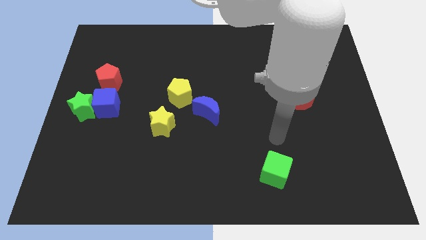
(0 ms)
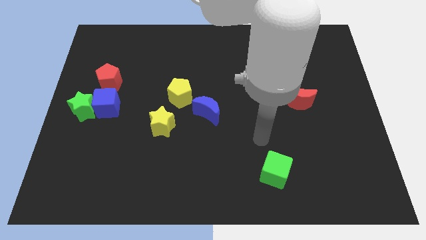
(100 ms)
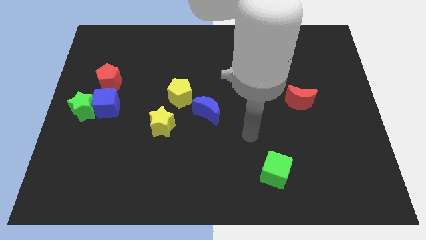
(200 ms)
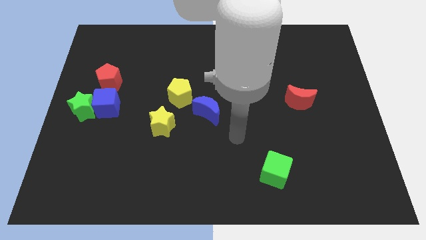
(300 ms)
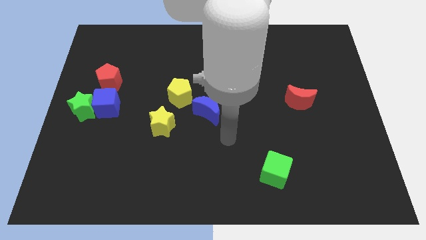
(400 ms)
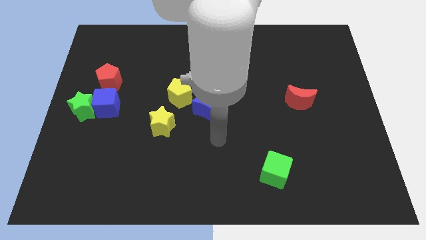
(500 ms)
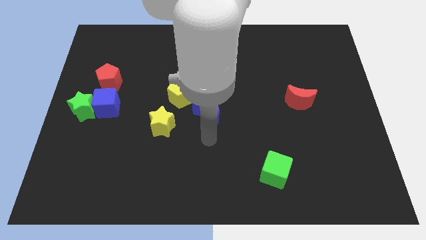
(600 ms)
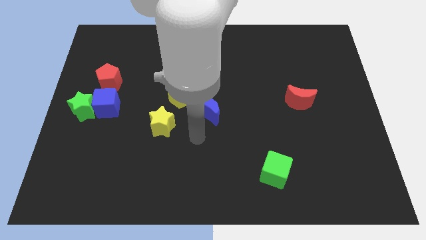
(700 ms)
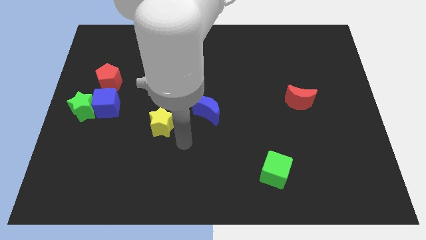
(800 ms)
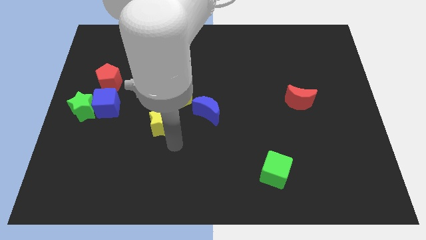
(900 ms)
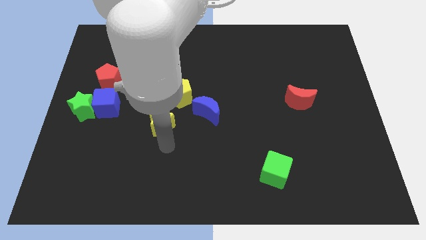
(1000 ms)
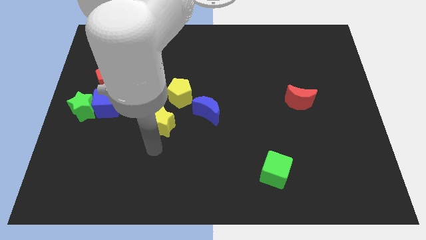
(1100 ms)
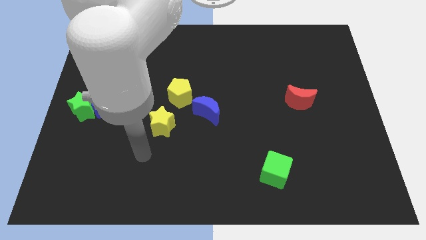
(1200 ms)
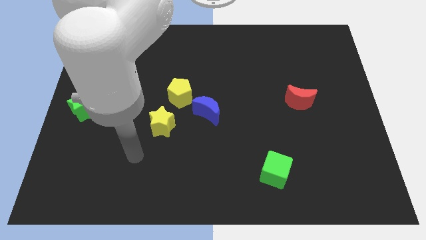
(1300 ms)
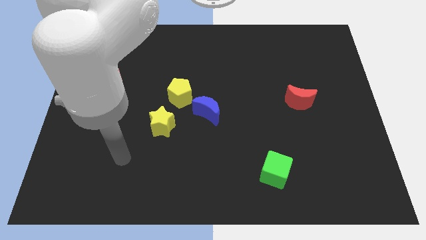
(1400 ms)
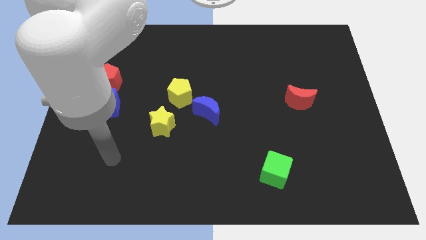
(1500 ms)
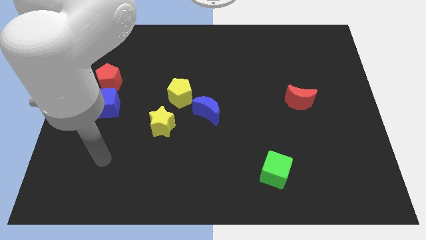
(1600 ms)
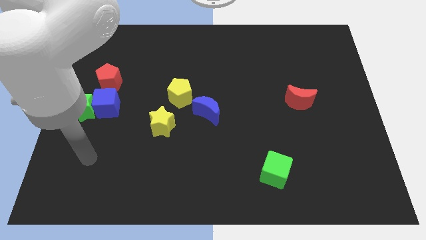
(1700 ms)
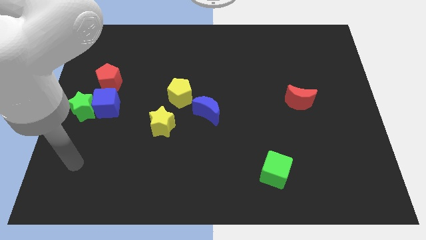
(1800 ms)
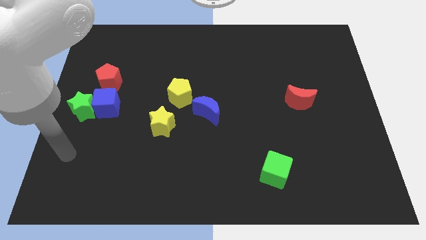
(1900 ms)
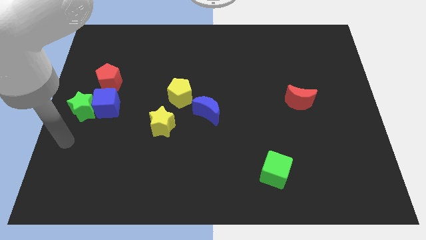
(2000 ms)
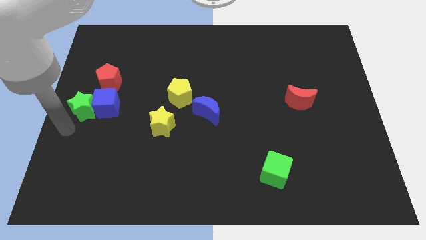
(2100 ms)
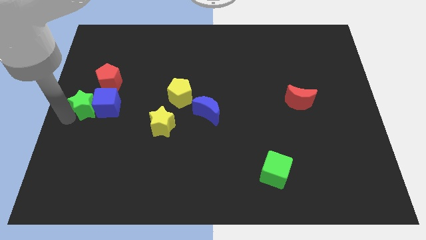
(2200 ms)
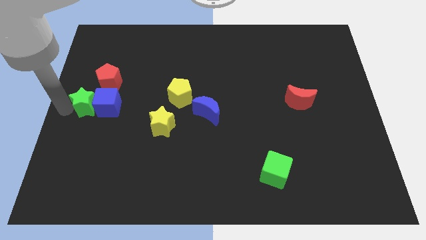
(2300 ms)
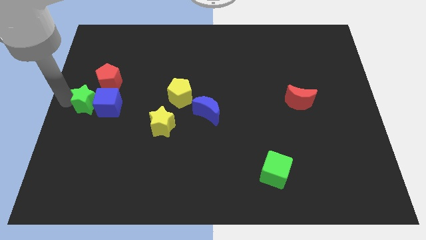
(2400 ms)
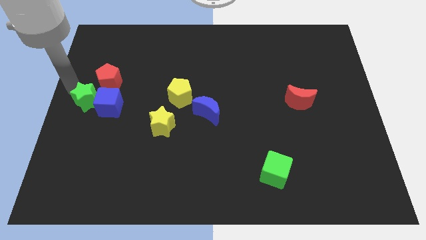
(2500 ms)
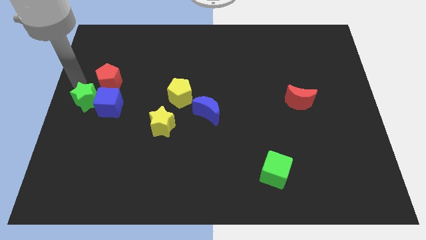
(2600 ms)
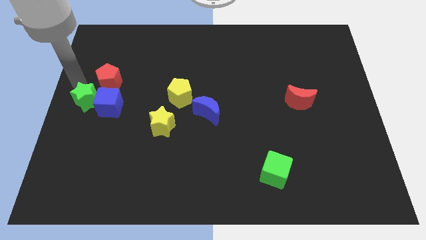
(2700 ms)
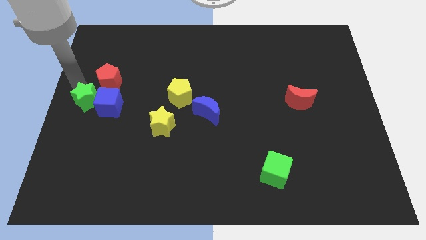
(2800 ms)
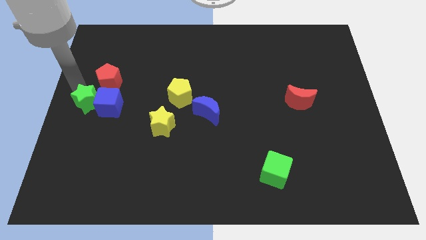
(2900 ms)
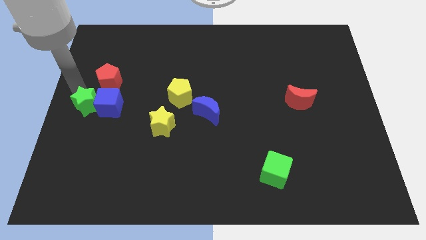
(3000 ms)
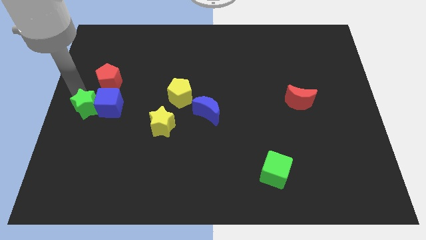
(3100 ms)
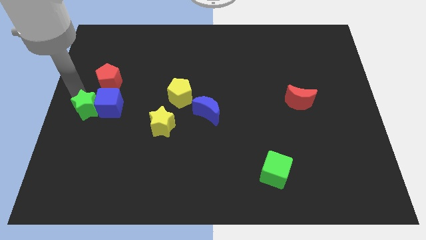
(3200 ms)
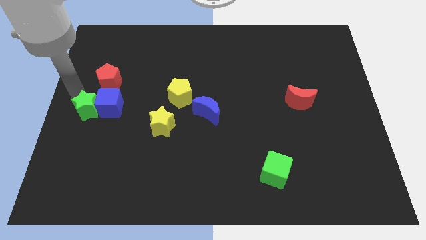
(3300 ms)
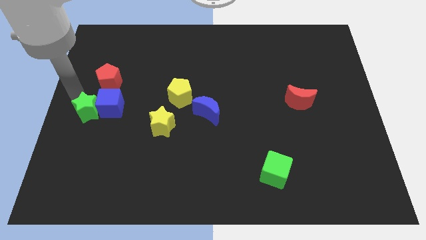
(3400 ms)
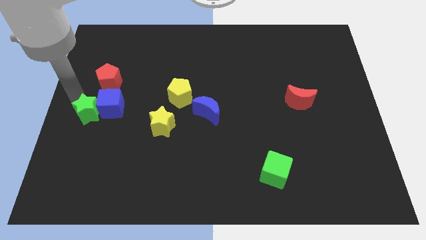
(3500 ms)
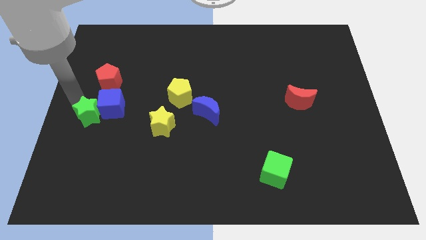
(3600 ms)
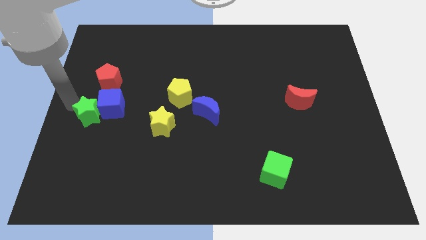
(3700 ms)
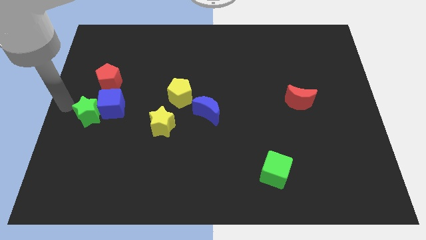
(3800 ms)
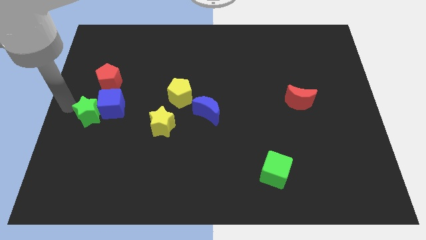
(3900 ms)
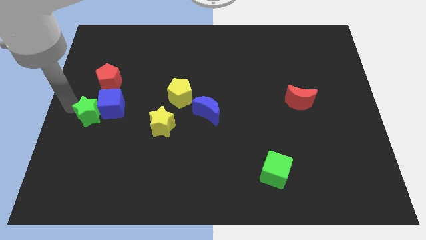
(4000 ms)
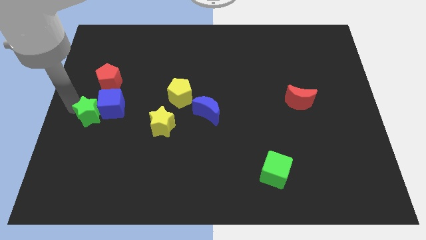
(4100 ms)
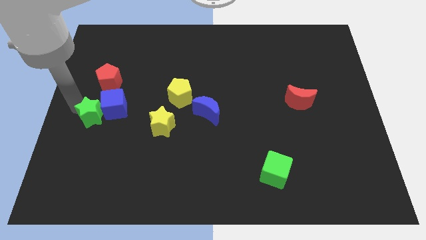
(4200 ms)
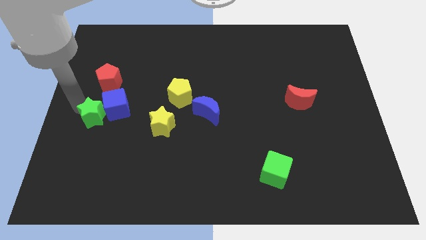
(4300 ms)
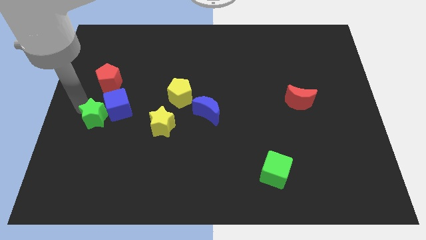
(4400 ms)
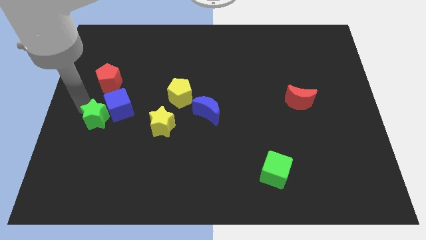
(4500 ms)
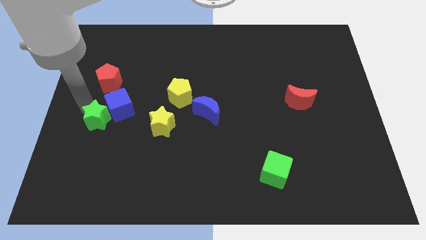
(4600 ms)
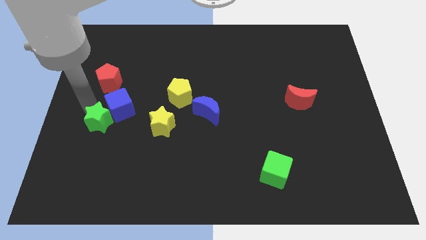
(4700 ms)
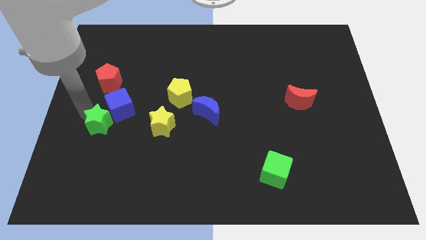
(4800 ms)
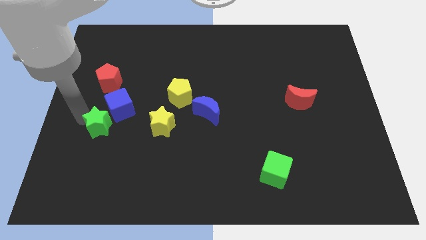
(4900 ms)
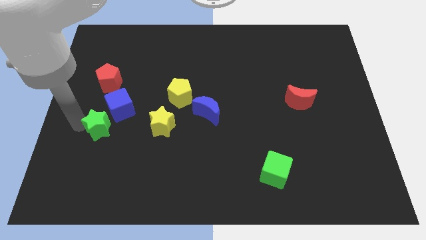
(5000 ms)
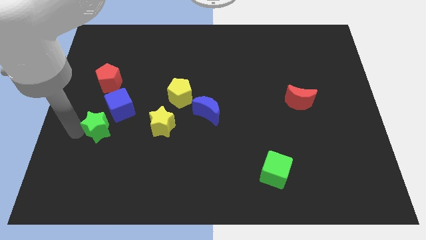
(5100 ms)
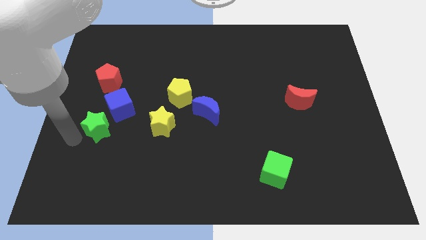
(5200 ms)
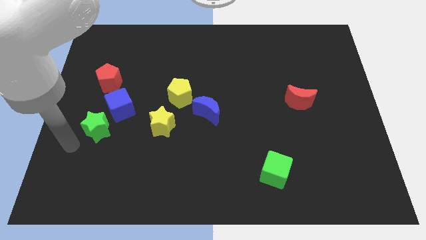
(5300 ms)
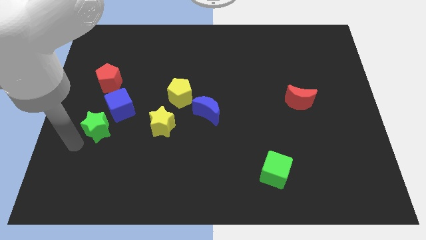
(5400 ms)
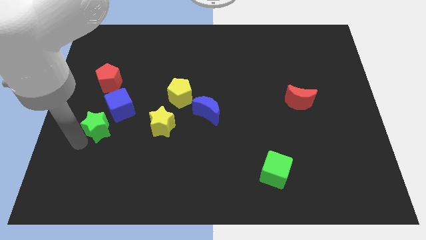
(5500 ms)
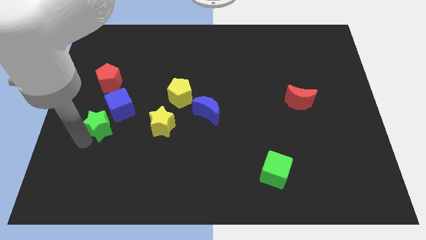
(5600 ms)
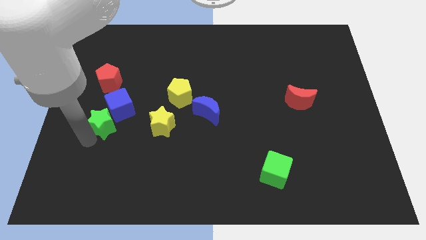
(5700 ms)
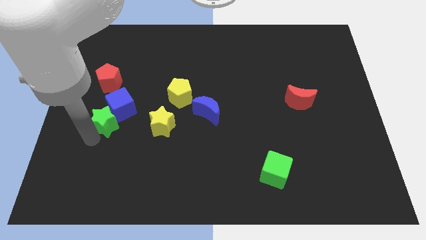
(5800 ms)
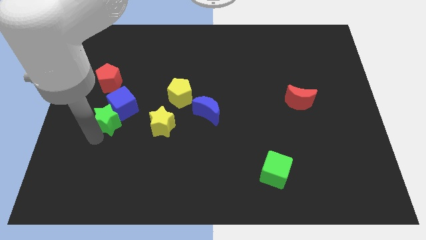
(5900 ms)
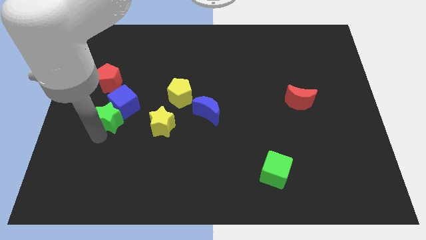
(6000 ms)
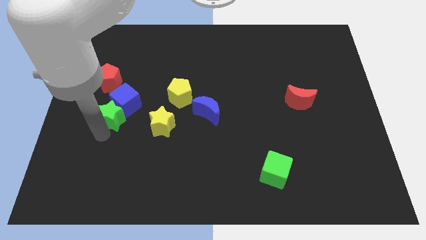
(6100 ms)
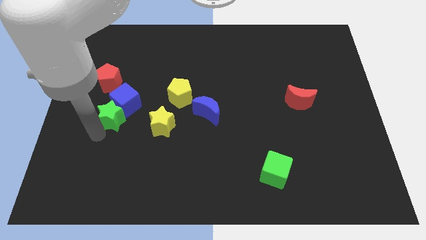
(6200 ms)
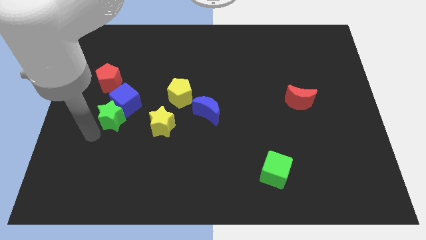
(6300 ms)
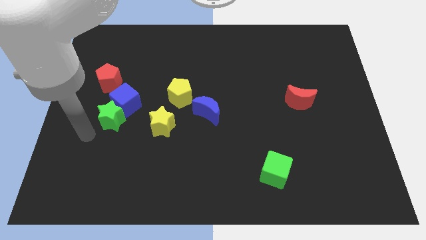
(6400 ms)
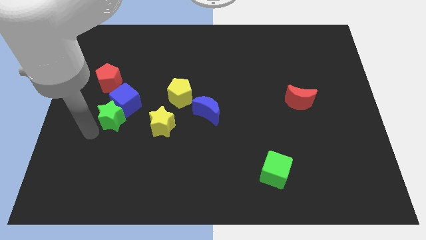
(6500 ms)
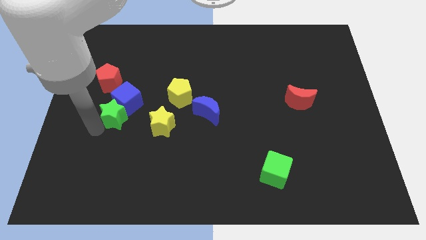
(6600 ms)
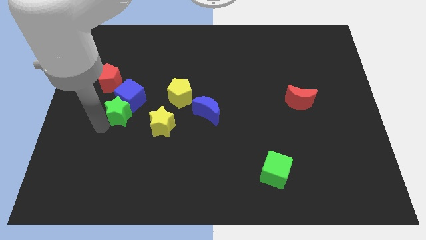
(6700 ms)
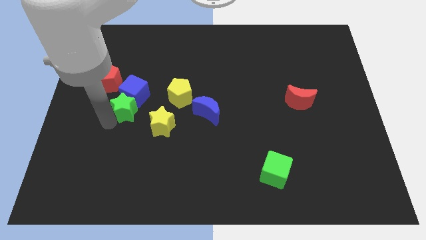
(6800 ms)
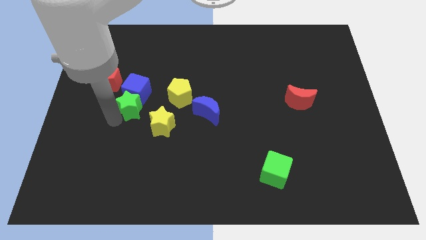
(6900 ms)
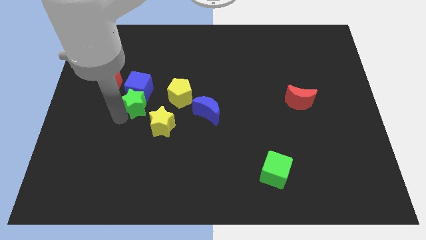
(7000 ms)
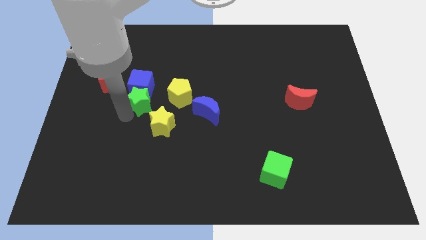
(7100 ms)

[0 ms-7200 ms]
slightly push the green star upwards and right

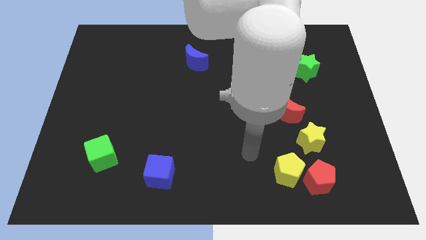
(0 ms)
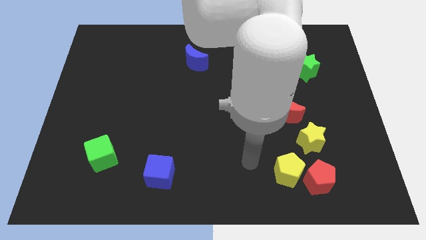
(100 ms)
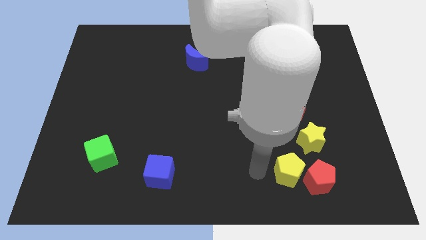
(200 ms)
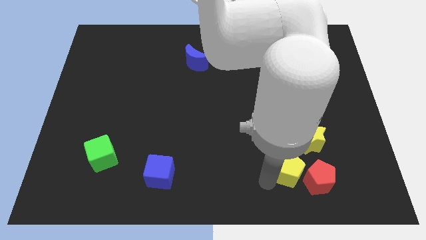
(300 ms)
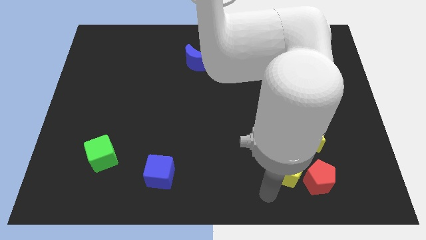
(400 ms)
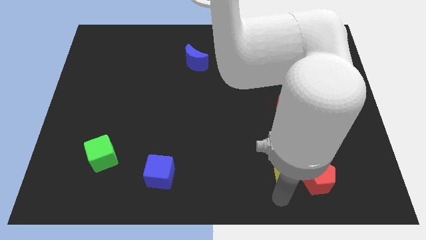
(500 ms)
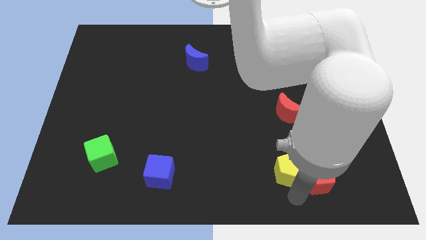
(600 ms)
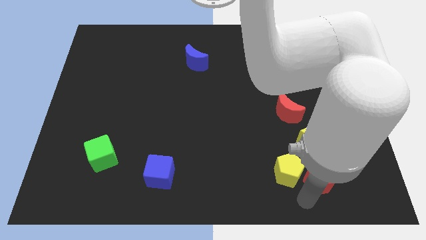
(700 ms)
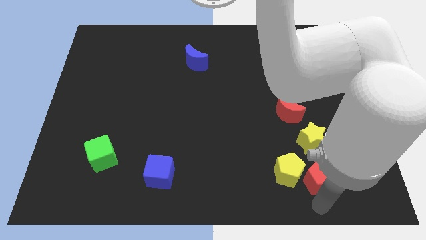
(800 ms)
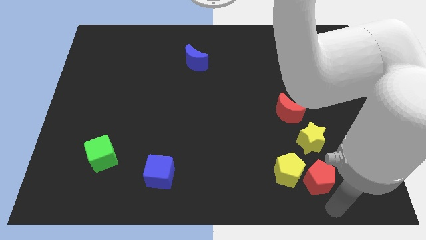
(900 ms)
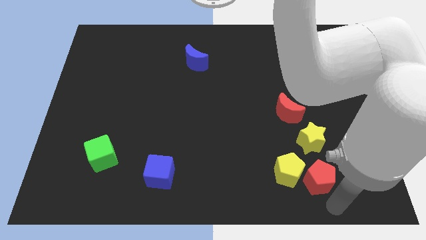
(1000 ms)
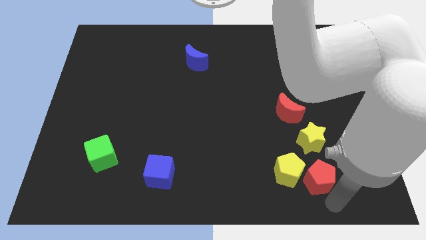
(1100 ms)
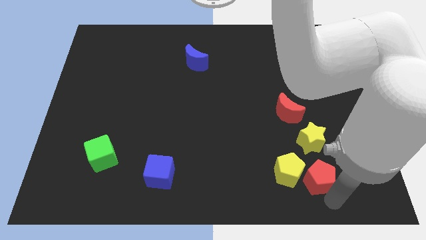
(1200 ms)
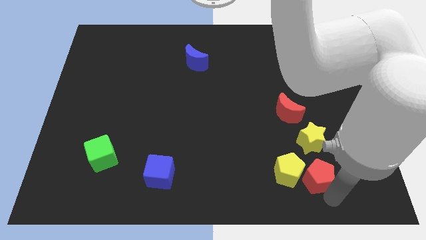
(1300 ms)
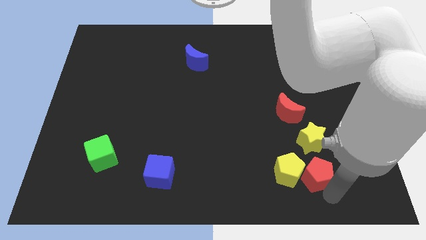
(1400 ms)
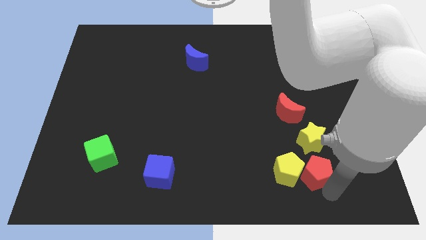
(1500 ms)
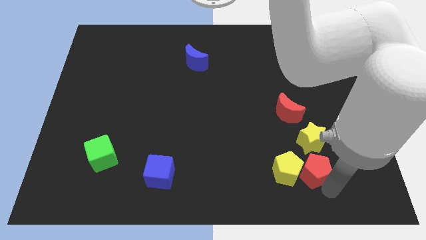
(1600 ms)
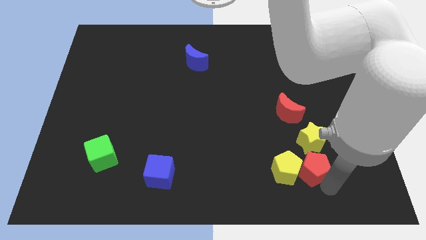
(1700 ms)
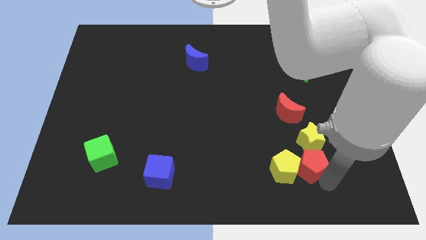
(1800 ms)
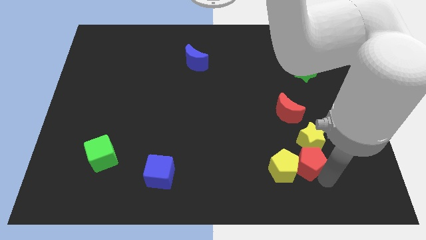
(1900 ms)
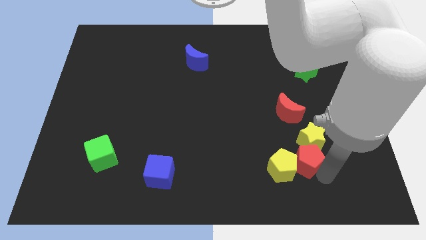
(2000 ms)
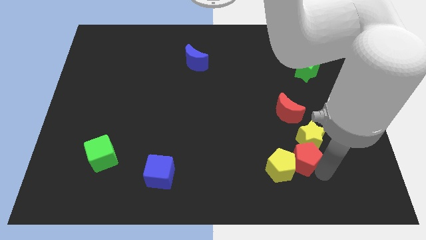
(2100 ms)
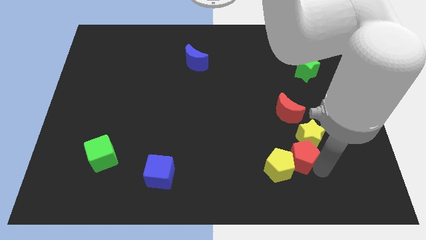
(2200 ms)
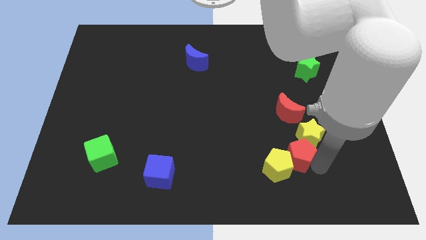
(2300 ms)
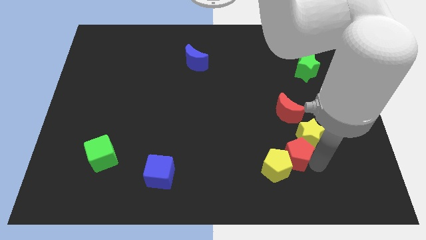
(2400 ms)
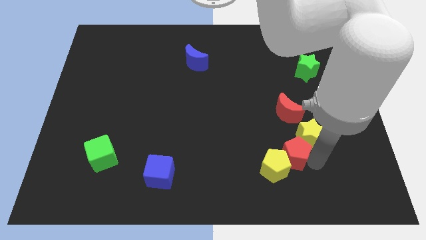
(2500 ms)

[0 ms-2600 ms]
push the red pentagon a little bit diagonally upwards and to the left
